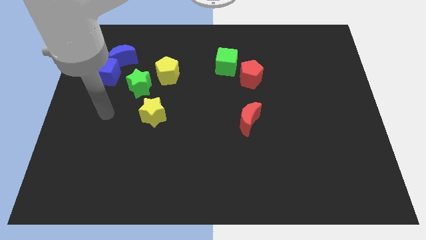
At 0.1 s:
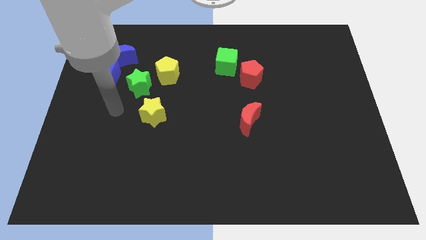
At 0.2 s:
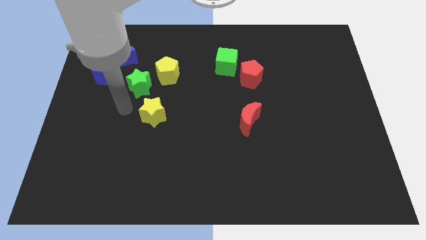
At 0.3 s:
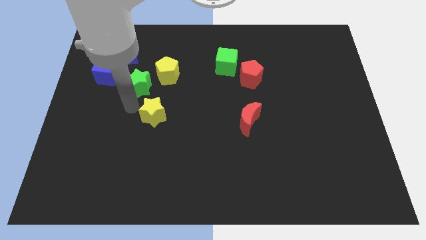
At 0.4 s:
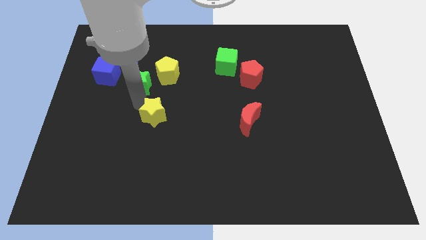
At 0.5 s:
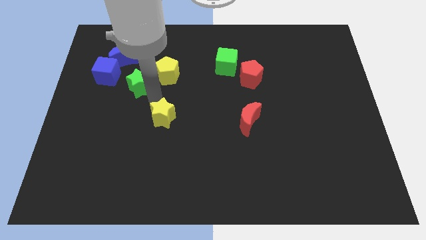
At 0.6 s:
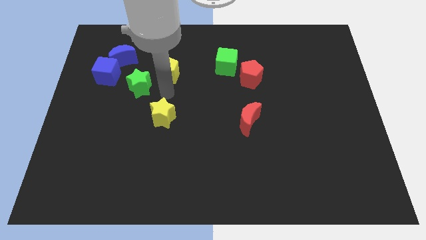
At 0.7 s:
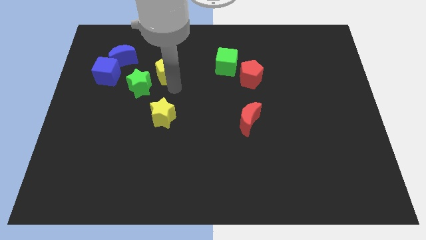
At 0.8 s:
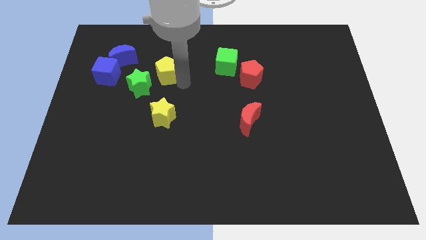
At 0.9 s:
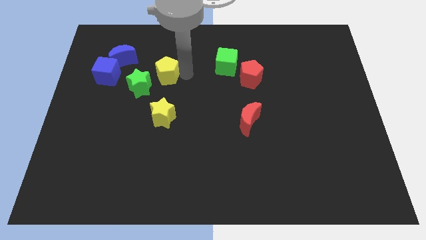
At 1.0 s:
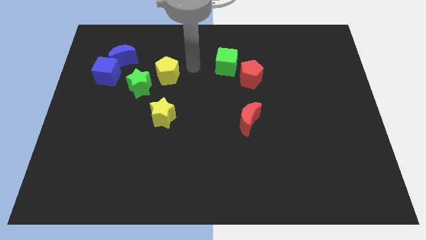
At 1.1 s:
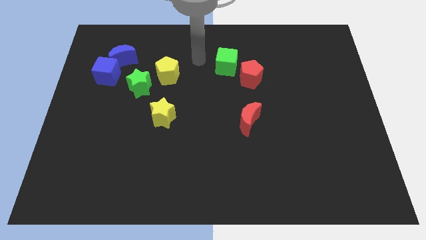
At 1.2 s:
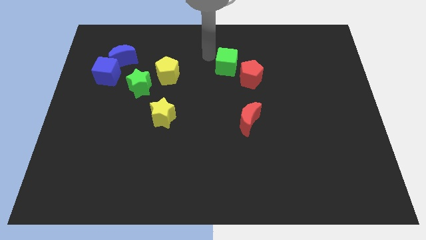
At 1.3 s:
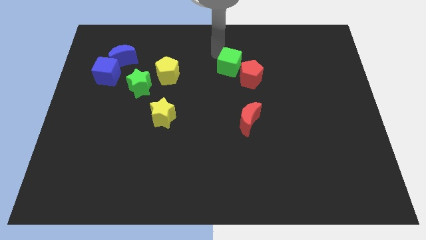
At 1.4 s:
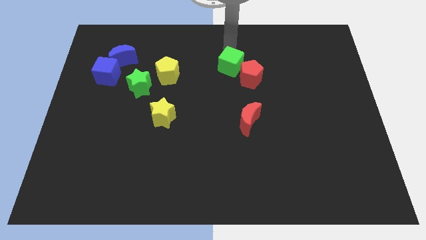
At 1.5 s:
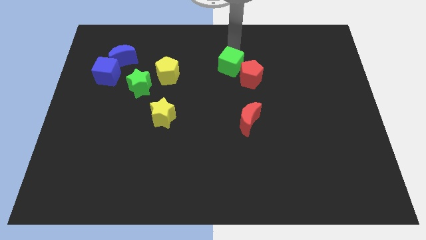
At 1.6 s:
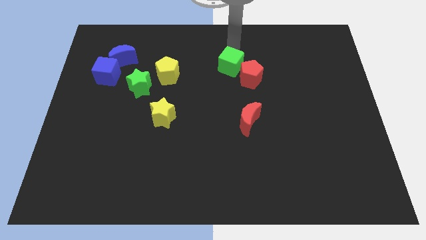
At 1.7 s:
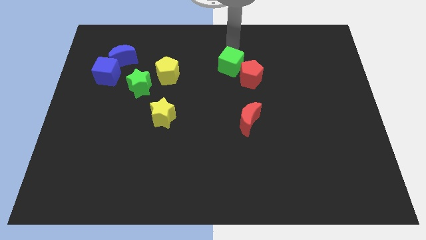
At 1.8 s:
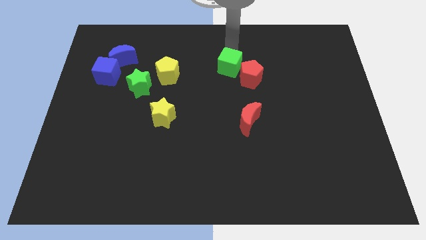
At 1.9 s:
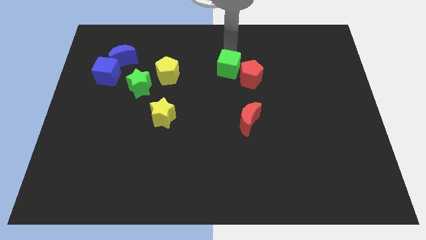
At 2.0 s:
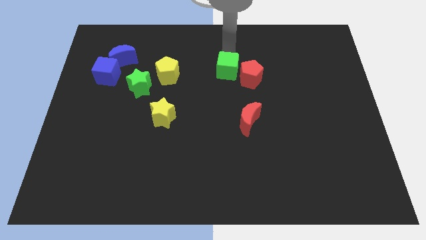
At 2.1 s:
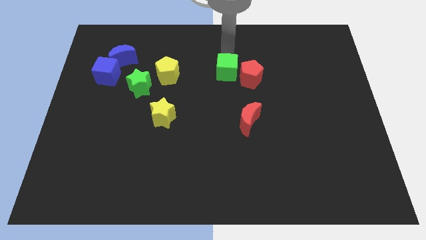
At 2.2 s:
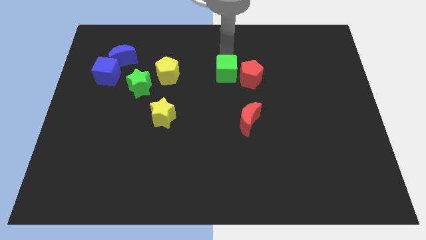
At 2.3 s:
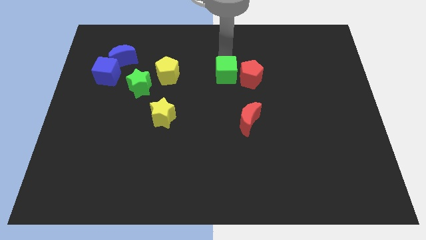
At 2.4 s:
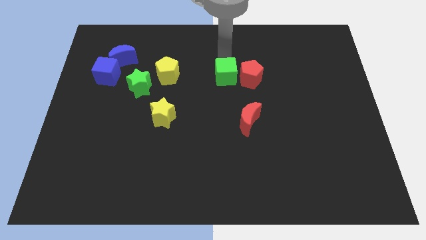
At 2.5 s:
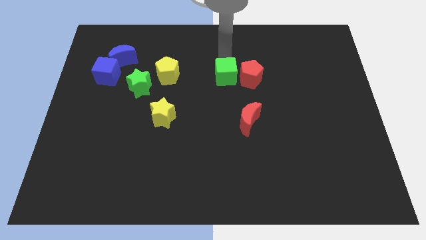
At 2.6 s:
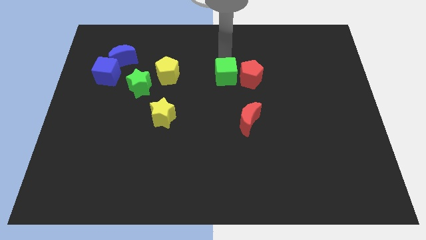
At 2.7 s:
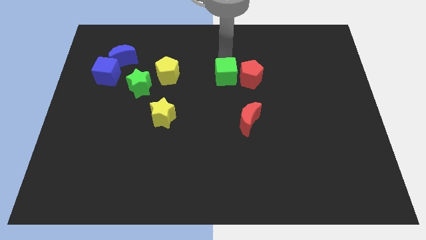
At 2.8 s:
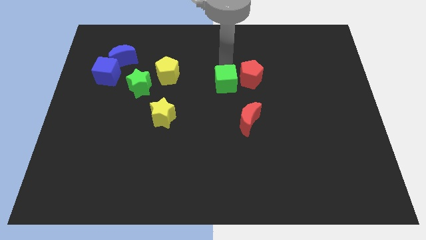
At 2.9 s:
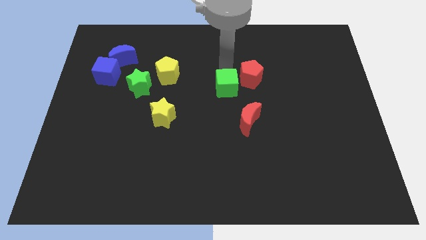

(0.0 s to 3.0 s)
slide the green cube downwards slightly

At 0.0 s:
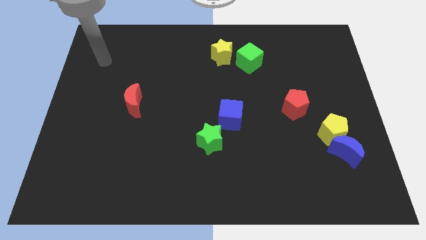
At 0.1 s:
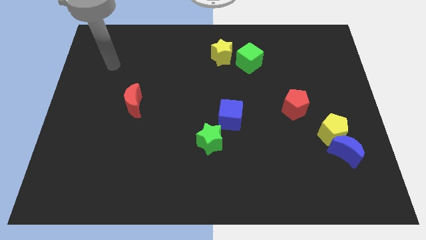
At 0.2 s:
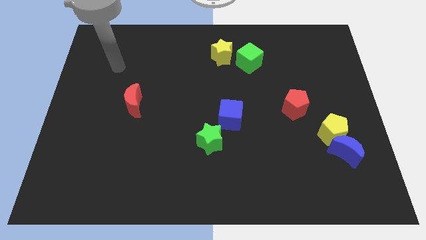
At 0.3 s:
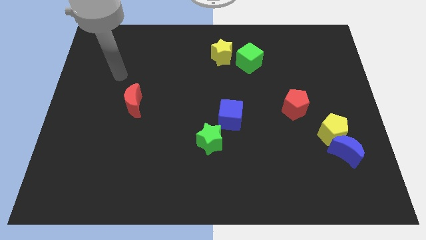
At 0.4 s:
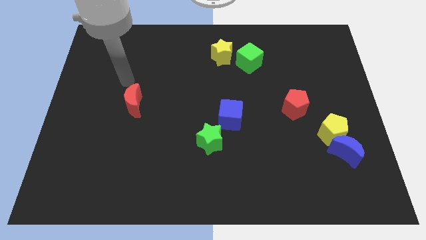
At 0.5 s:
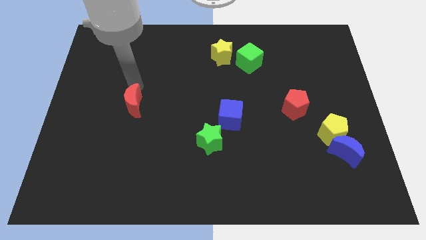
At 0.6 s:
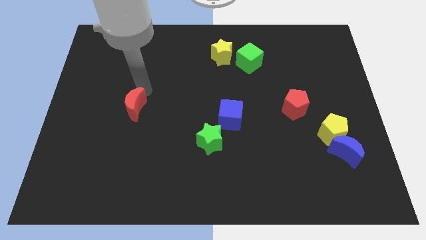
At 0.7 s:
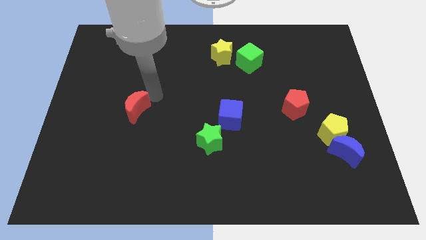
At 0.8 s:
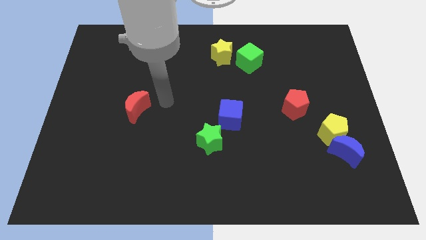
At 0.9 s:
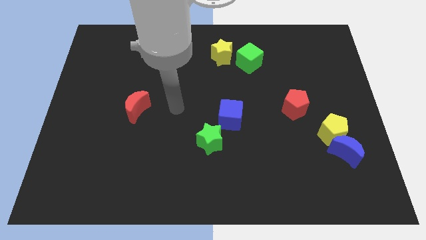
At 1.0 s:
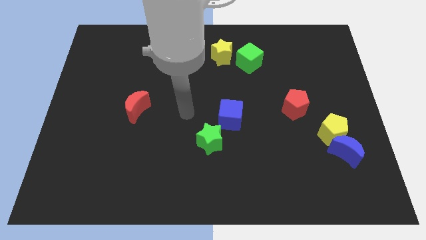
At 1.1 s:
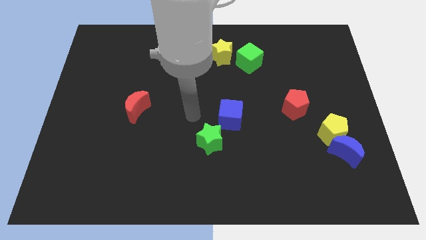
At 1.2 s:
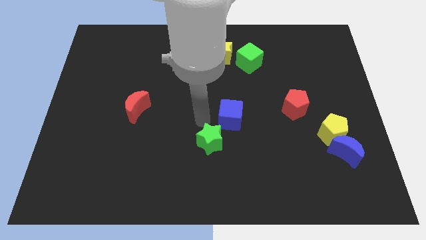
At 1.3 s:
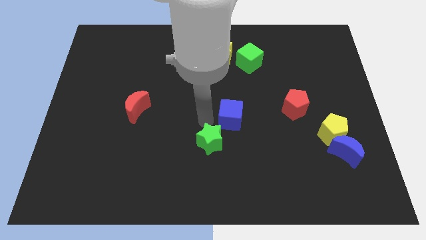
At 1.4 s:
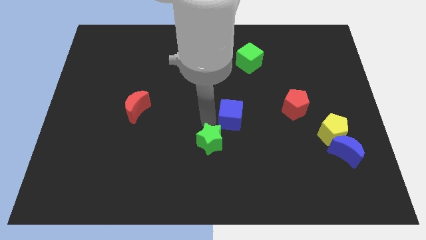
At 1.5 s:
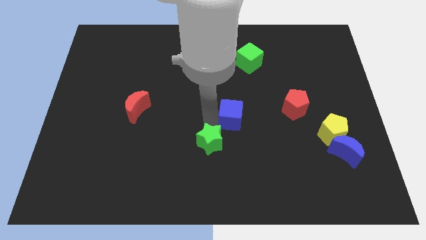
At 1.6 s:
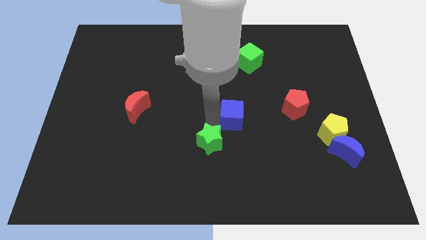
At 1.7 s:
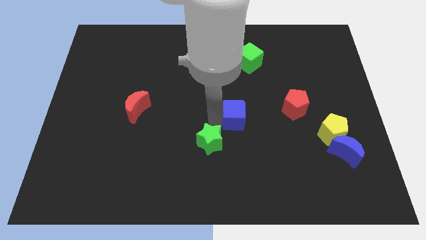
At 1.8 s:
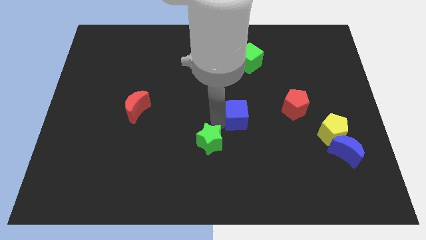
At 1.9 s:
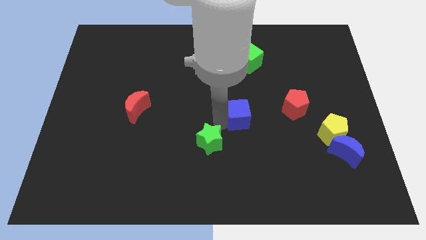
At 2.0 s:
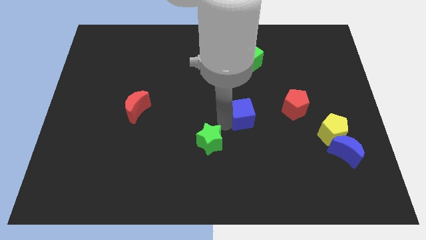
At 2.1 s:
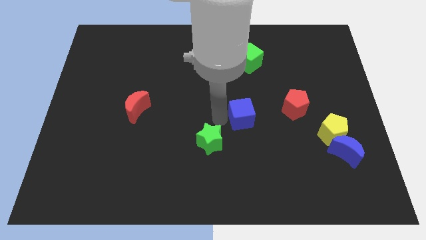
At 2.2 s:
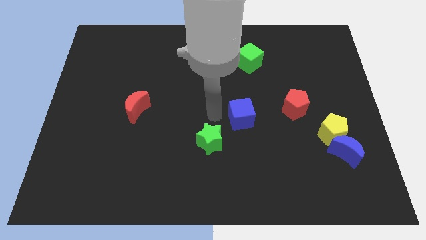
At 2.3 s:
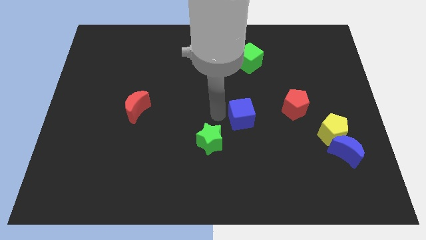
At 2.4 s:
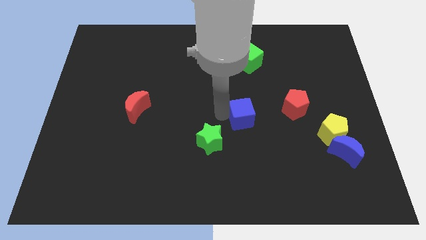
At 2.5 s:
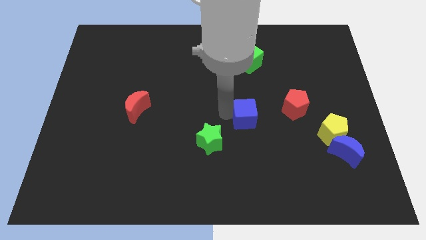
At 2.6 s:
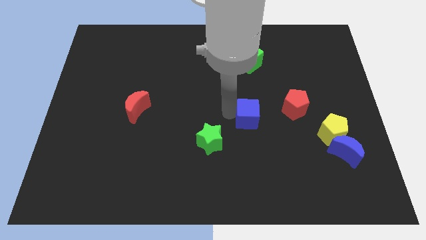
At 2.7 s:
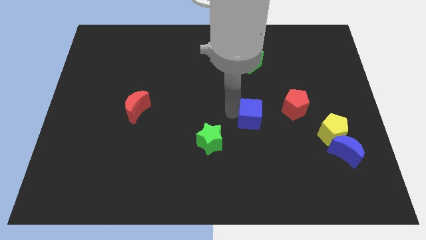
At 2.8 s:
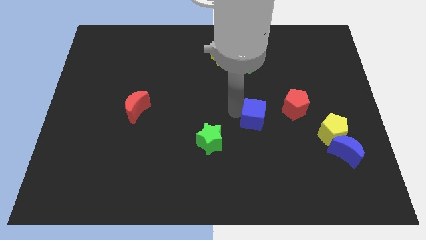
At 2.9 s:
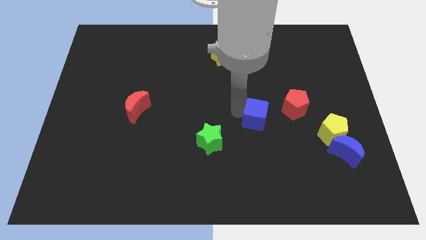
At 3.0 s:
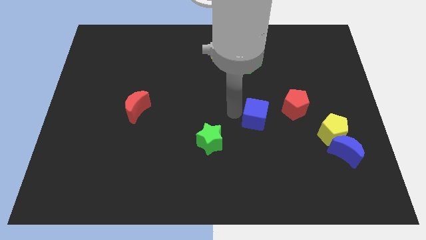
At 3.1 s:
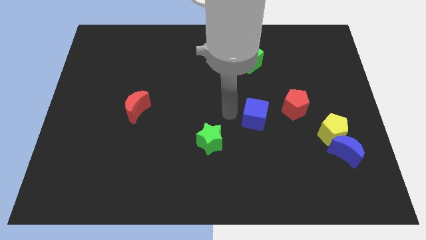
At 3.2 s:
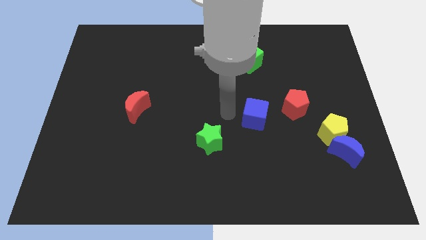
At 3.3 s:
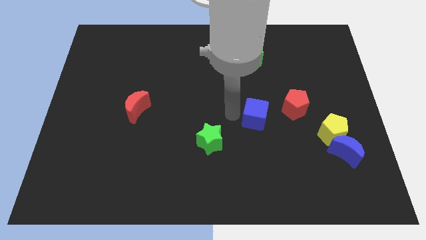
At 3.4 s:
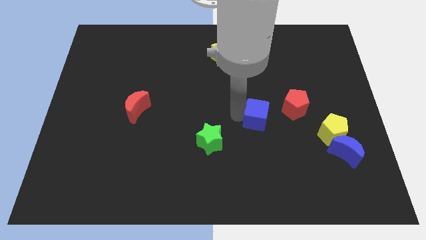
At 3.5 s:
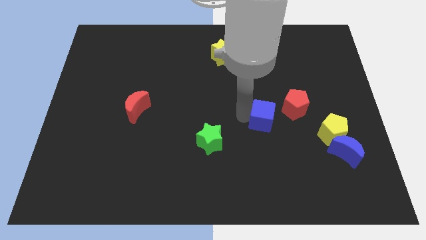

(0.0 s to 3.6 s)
slightly move the blue cube to the right

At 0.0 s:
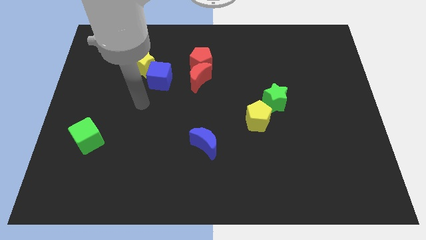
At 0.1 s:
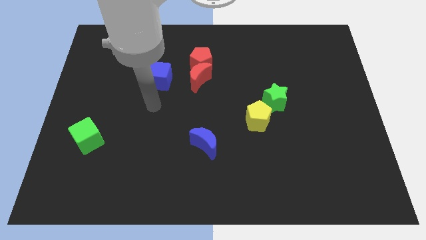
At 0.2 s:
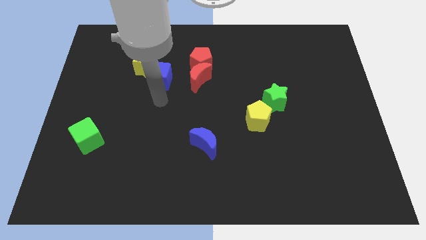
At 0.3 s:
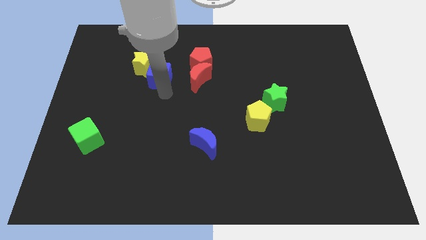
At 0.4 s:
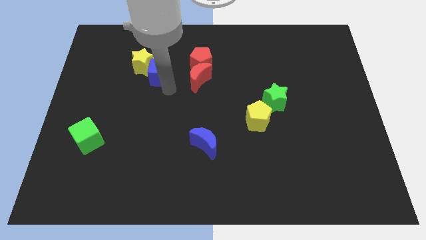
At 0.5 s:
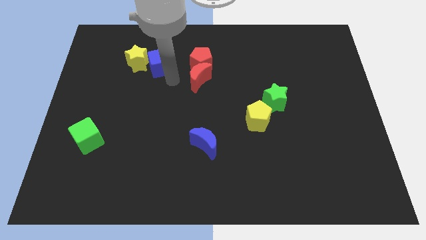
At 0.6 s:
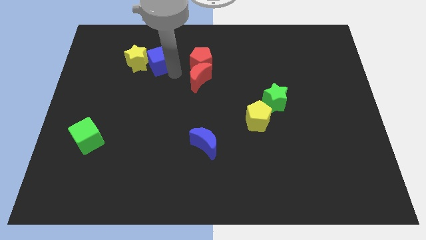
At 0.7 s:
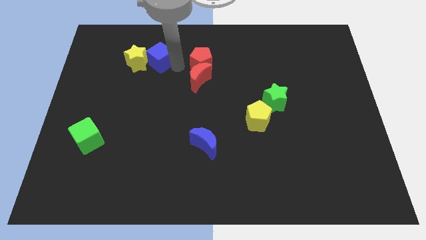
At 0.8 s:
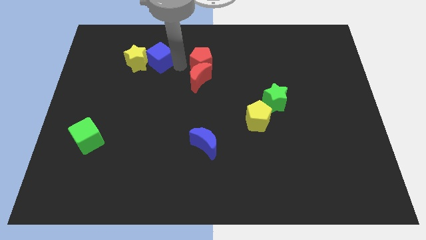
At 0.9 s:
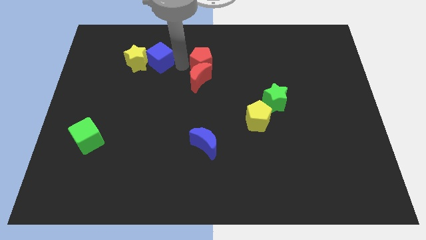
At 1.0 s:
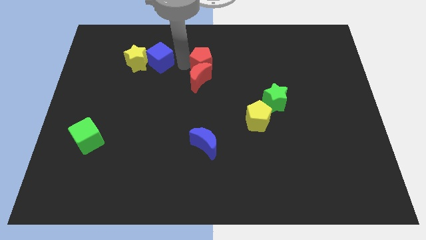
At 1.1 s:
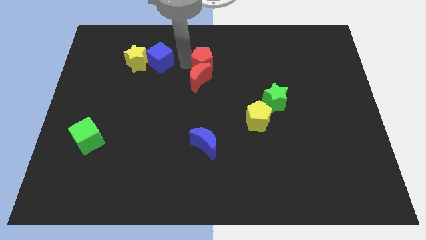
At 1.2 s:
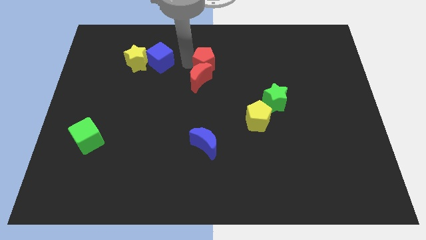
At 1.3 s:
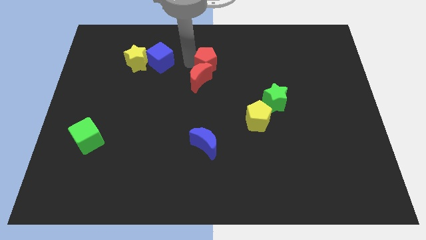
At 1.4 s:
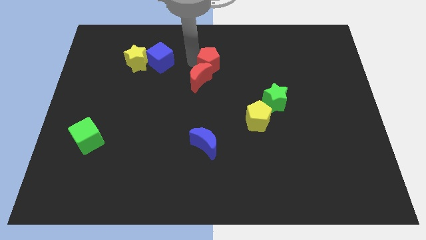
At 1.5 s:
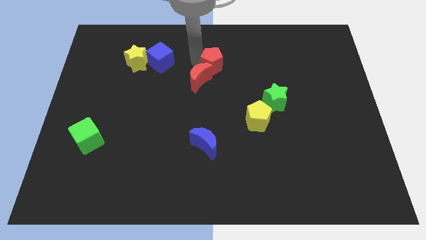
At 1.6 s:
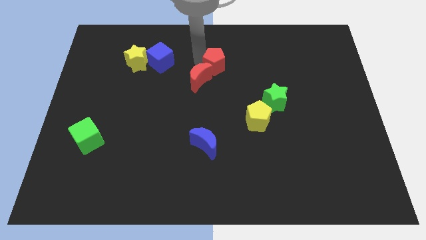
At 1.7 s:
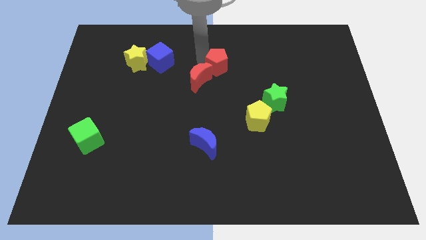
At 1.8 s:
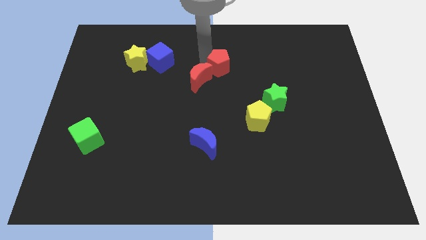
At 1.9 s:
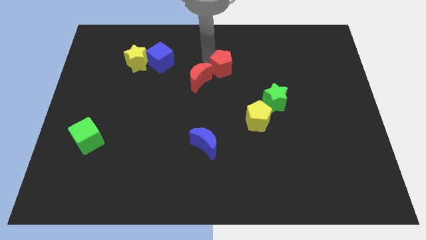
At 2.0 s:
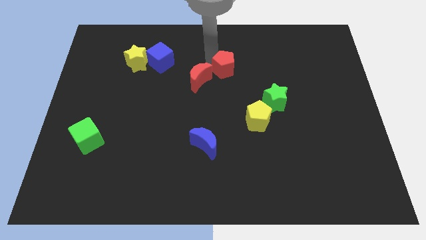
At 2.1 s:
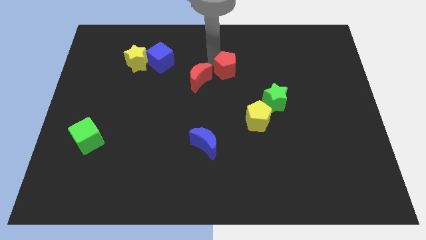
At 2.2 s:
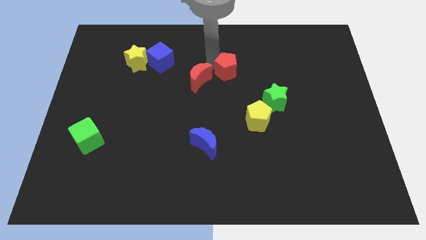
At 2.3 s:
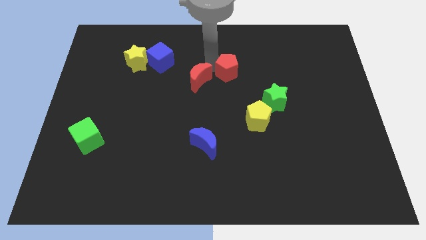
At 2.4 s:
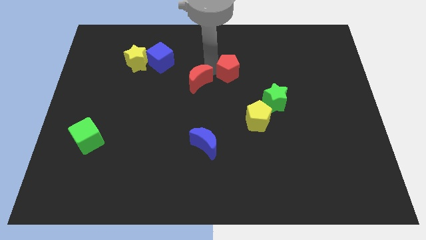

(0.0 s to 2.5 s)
push the red pentagon a little to the right
